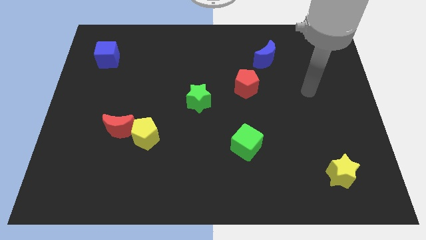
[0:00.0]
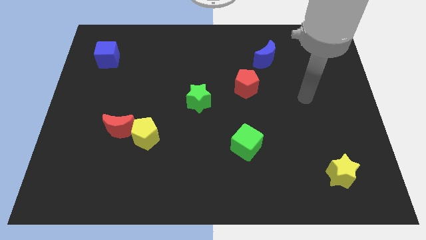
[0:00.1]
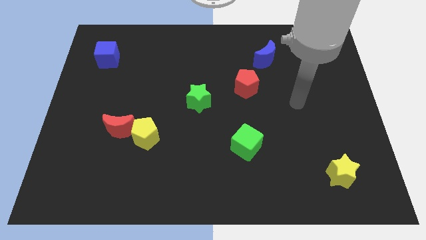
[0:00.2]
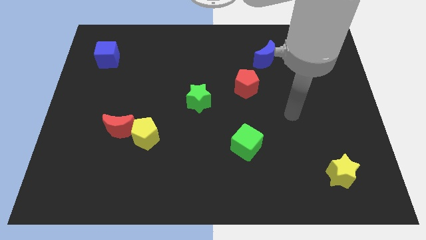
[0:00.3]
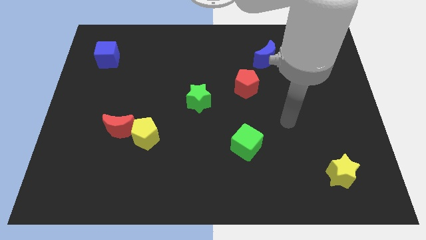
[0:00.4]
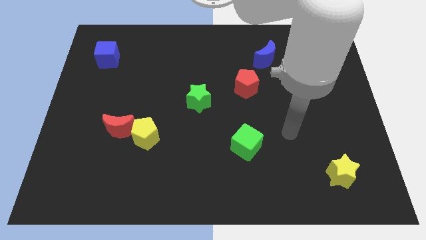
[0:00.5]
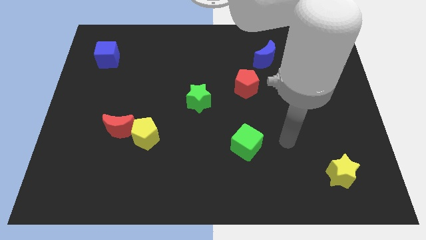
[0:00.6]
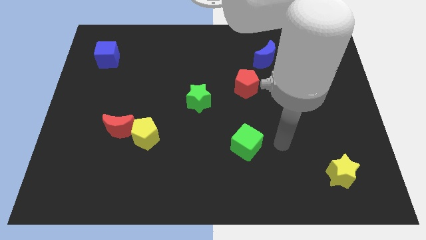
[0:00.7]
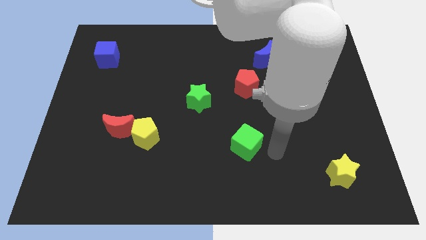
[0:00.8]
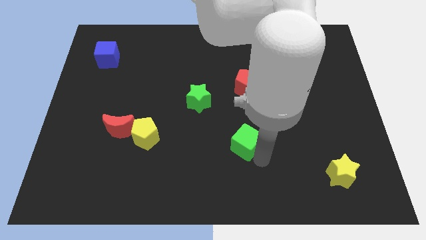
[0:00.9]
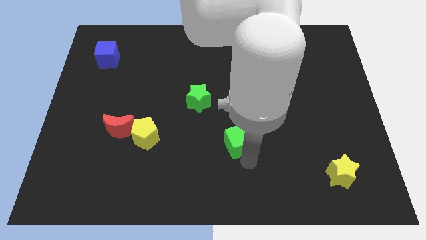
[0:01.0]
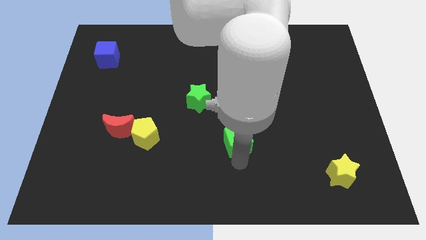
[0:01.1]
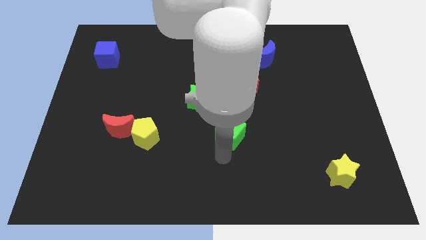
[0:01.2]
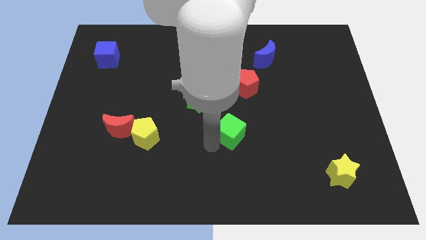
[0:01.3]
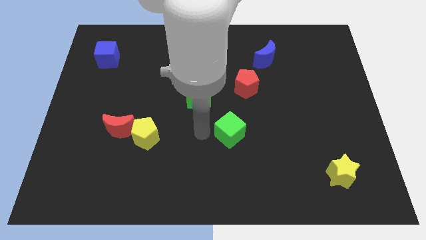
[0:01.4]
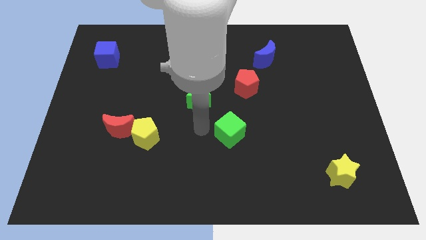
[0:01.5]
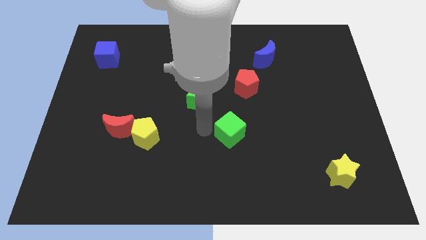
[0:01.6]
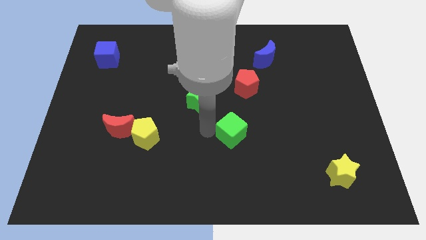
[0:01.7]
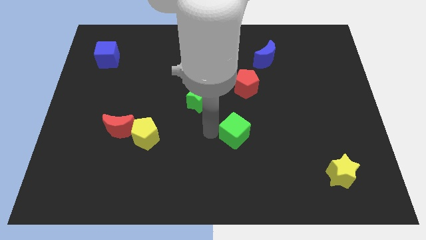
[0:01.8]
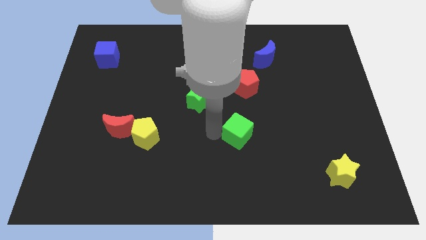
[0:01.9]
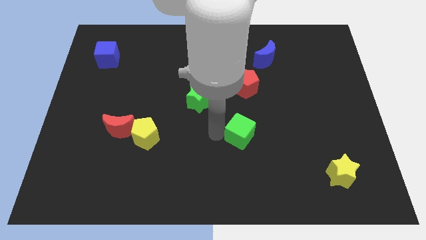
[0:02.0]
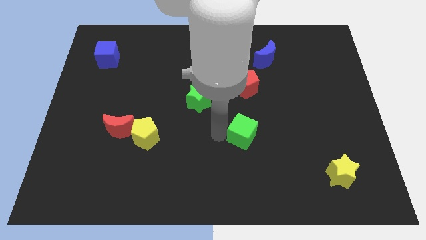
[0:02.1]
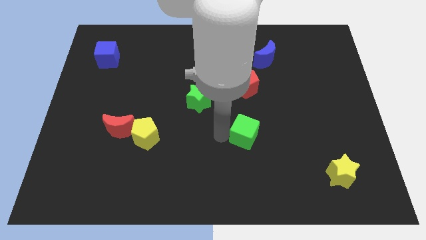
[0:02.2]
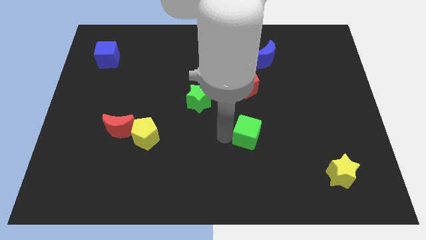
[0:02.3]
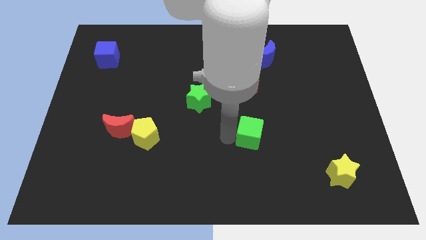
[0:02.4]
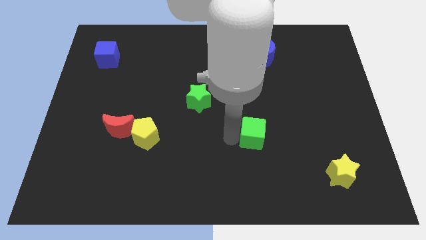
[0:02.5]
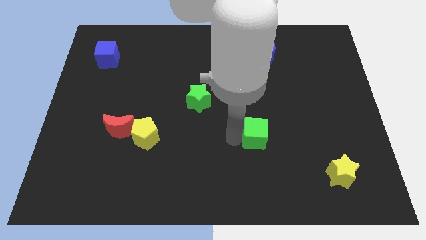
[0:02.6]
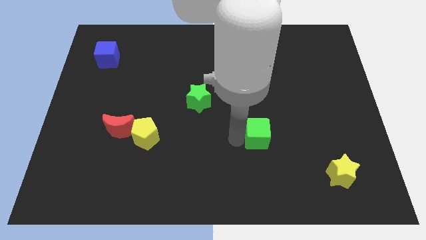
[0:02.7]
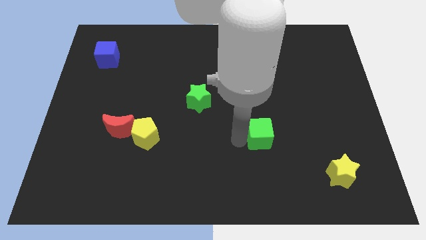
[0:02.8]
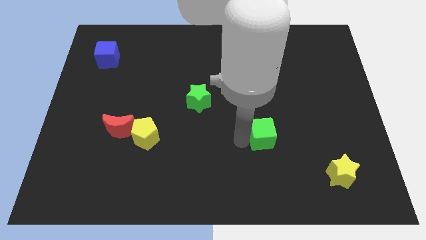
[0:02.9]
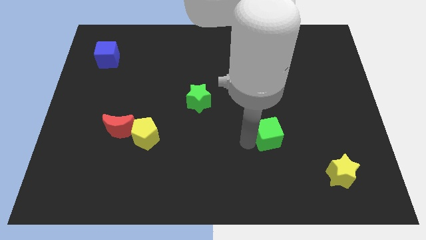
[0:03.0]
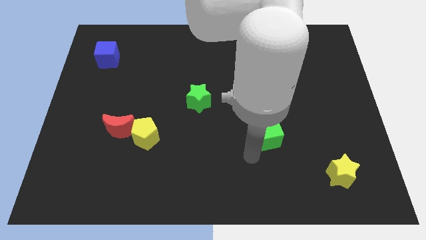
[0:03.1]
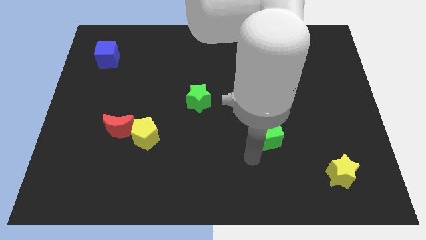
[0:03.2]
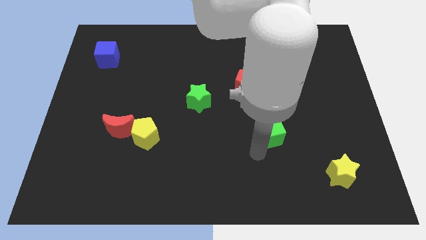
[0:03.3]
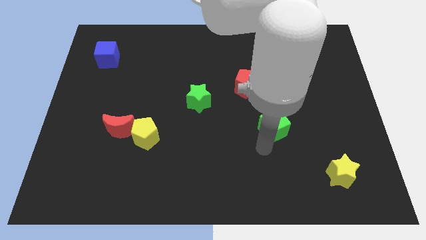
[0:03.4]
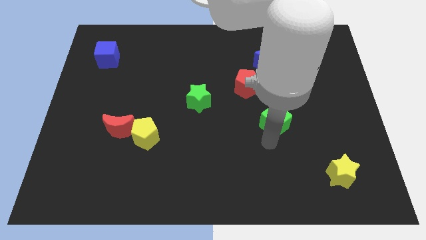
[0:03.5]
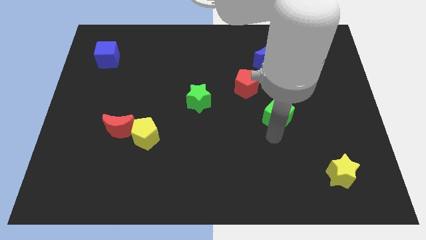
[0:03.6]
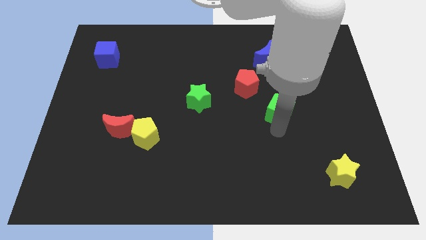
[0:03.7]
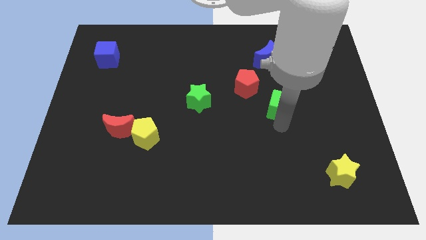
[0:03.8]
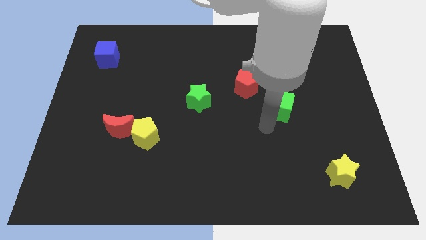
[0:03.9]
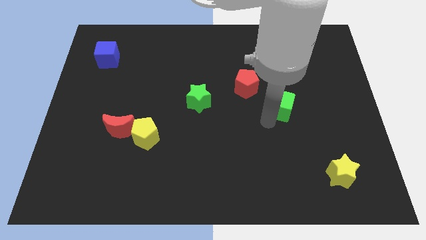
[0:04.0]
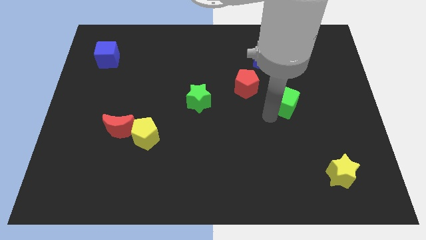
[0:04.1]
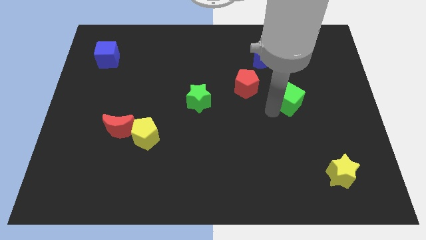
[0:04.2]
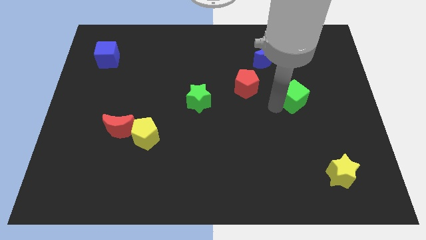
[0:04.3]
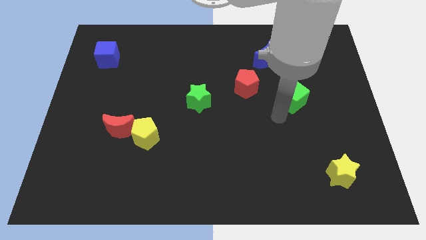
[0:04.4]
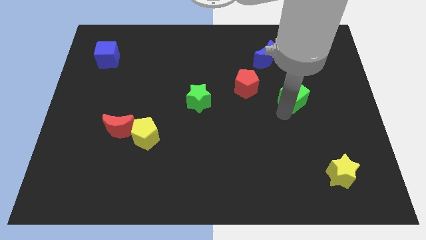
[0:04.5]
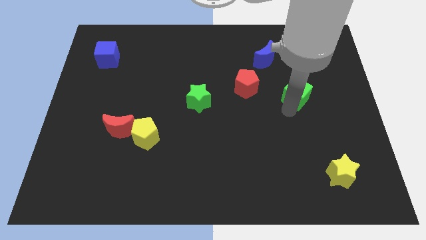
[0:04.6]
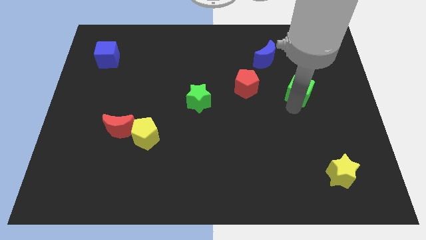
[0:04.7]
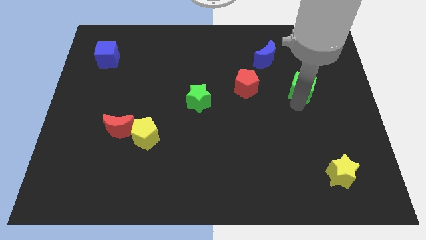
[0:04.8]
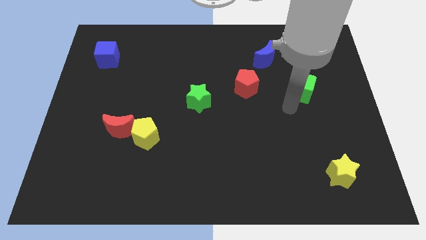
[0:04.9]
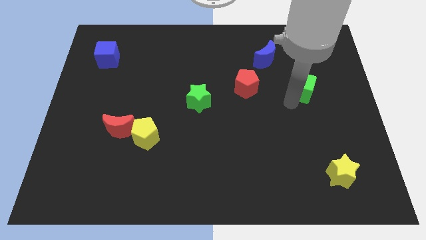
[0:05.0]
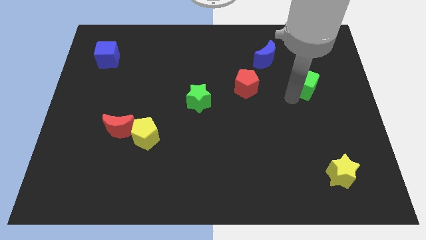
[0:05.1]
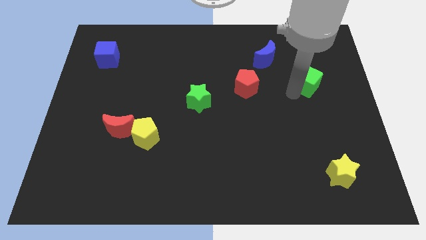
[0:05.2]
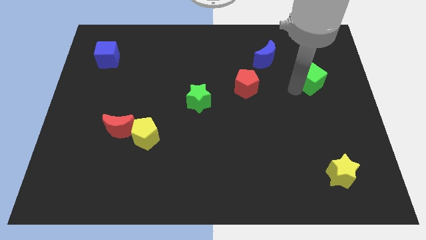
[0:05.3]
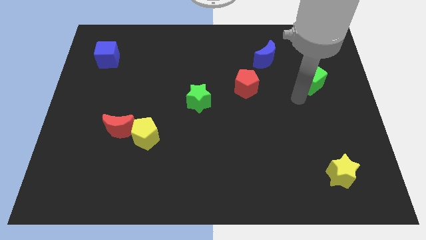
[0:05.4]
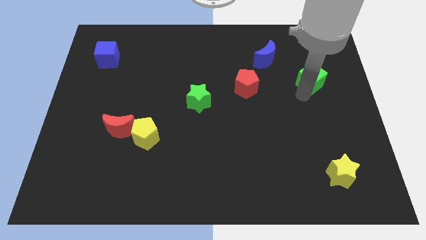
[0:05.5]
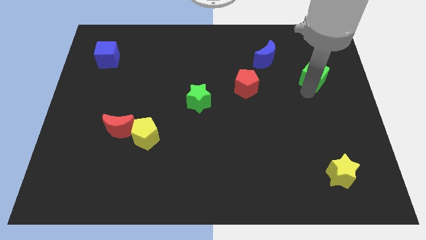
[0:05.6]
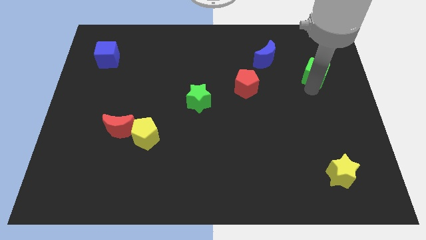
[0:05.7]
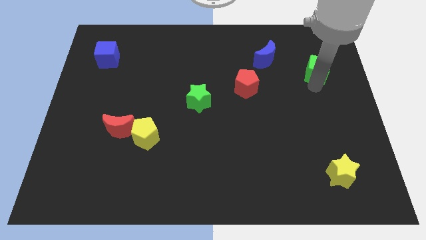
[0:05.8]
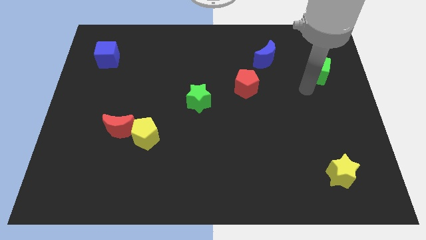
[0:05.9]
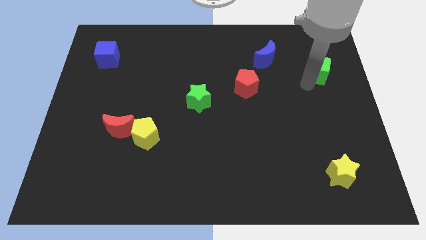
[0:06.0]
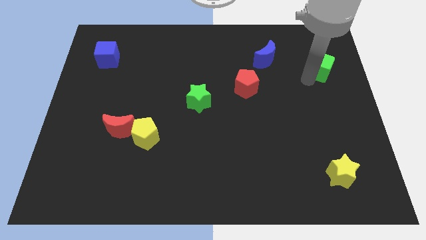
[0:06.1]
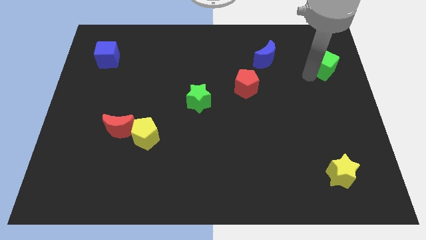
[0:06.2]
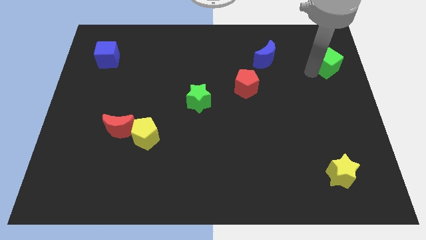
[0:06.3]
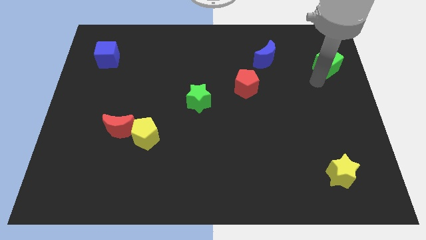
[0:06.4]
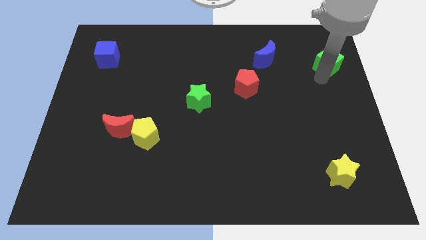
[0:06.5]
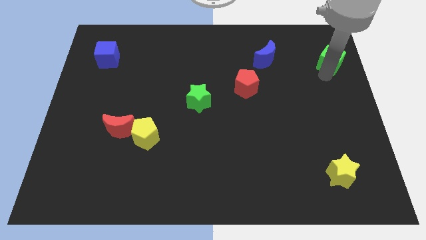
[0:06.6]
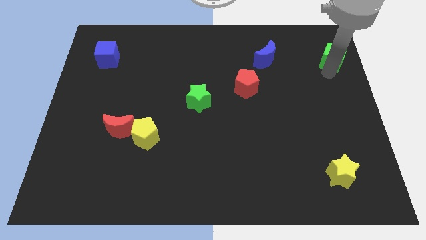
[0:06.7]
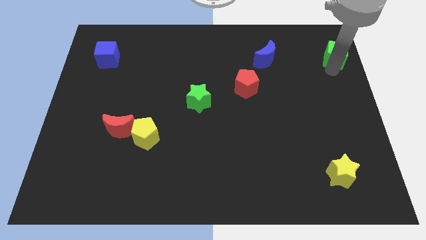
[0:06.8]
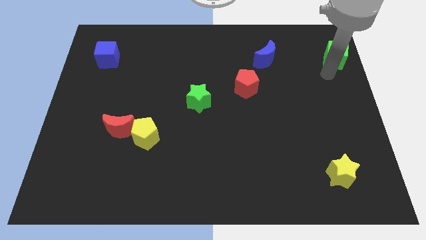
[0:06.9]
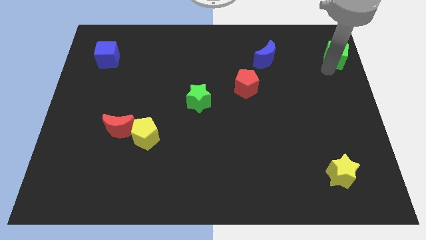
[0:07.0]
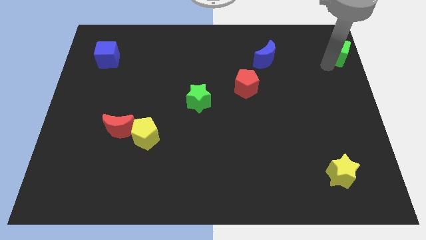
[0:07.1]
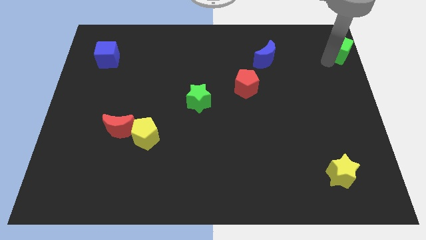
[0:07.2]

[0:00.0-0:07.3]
put the green cube to the upper right corner
